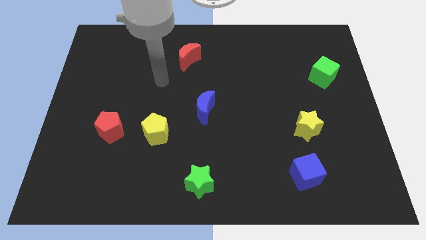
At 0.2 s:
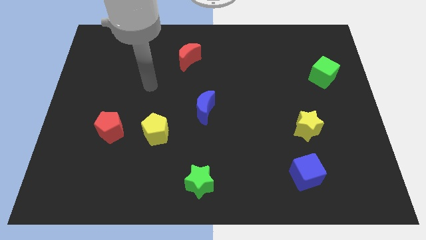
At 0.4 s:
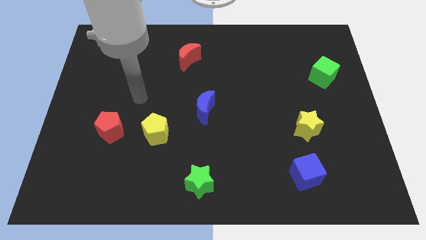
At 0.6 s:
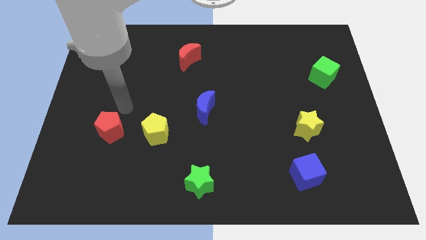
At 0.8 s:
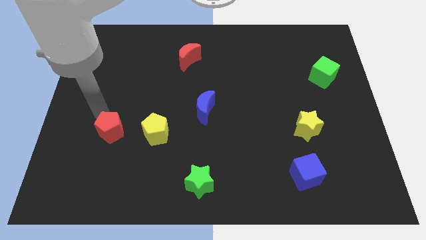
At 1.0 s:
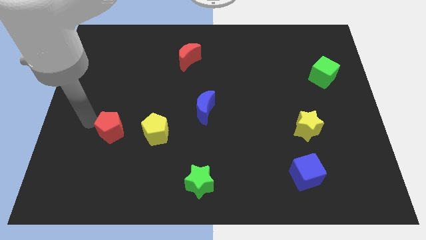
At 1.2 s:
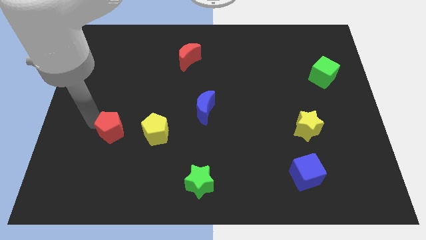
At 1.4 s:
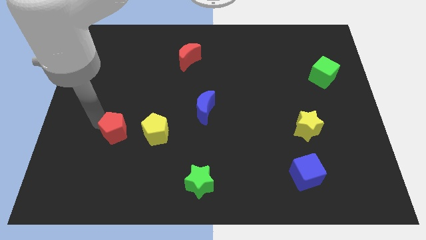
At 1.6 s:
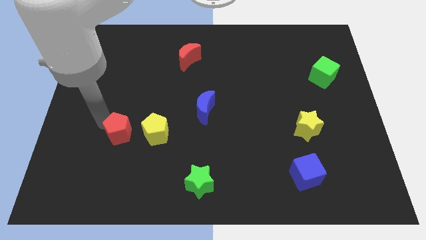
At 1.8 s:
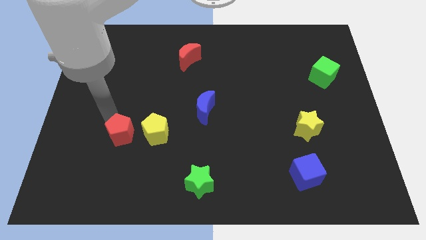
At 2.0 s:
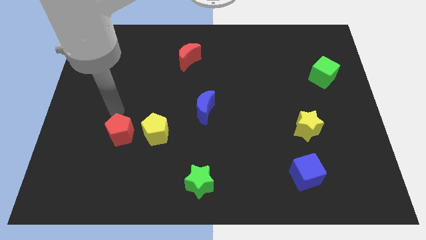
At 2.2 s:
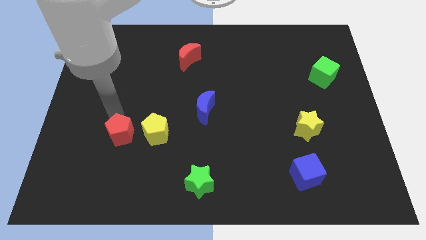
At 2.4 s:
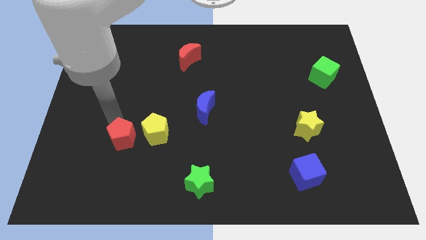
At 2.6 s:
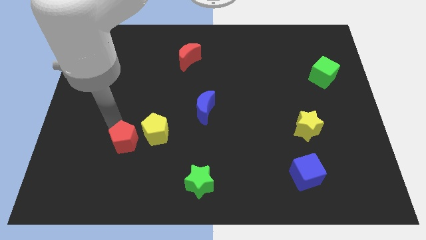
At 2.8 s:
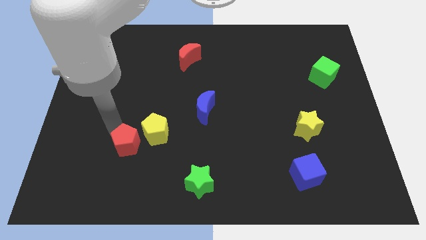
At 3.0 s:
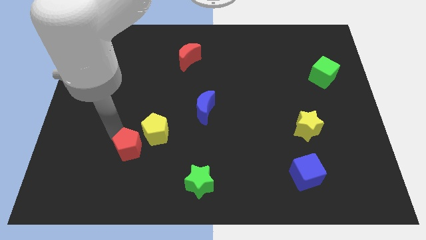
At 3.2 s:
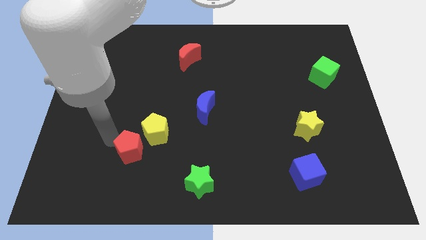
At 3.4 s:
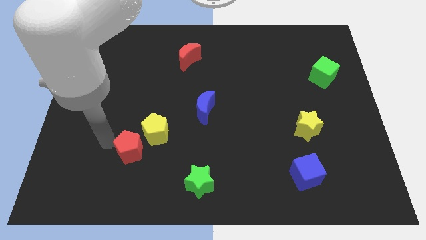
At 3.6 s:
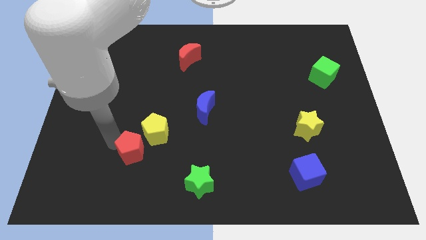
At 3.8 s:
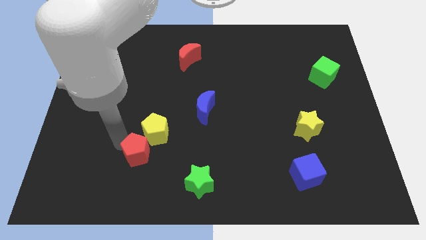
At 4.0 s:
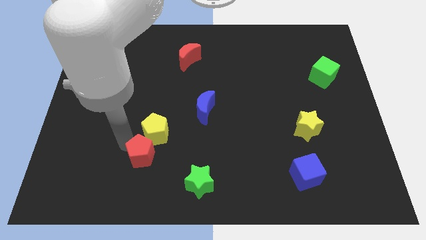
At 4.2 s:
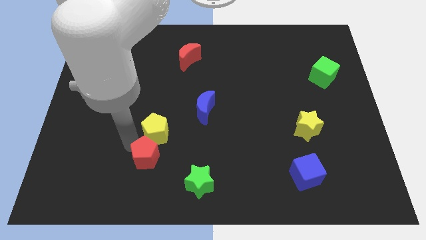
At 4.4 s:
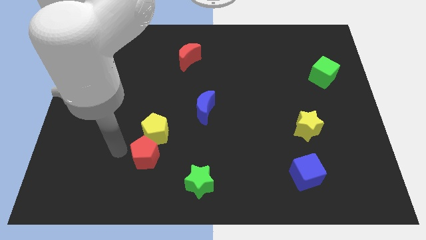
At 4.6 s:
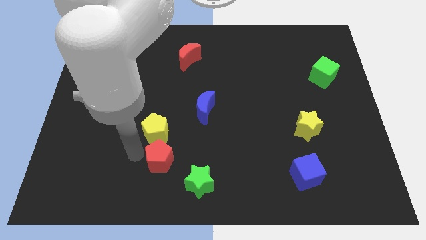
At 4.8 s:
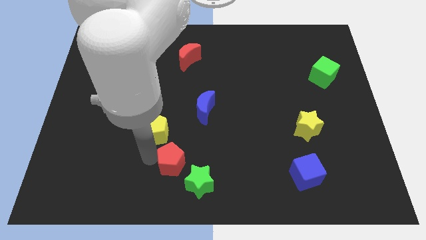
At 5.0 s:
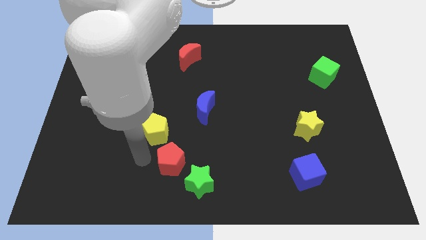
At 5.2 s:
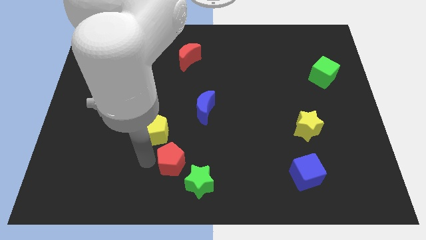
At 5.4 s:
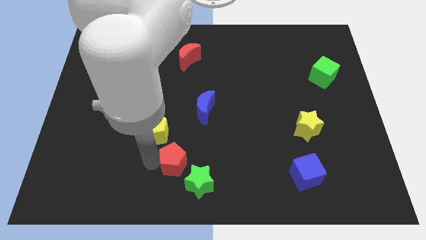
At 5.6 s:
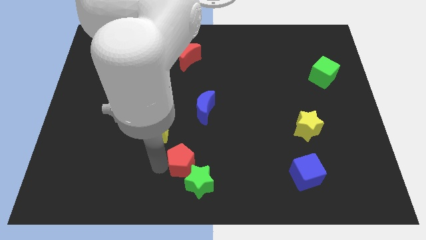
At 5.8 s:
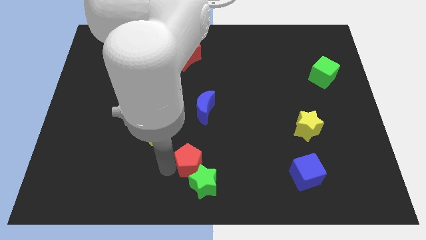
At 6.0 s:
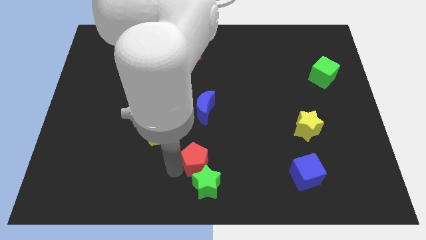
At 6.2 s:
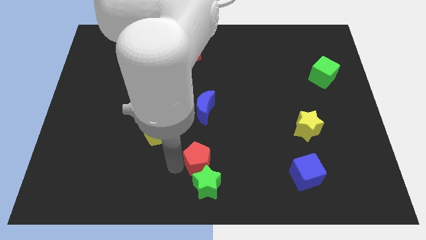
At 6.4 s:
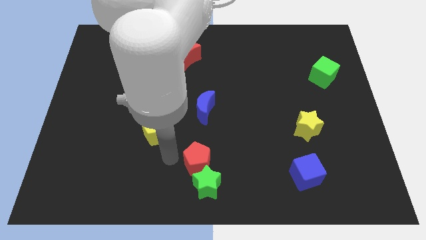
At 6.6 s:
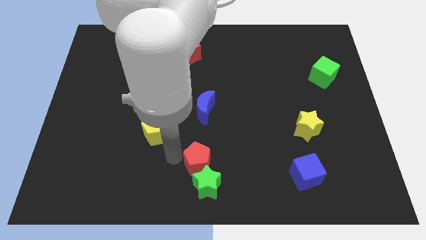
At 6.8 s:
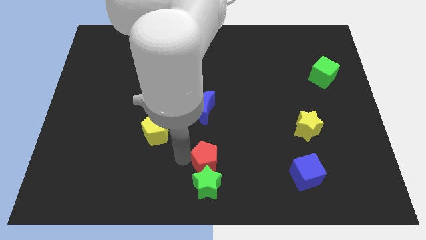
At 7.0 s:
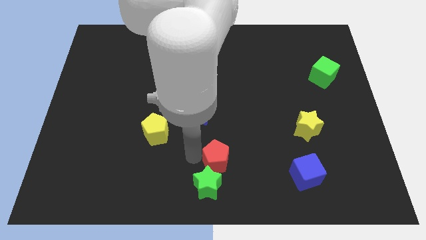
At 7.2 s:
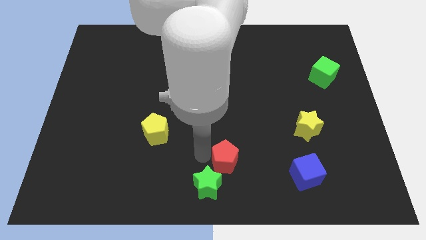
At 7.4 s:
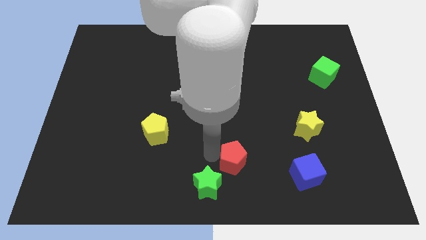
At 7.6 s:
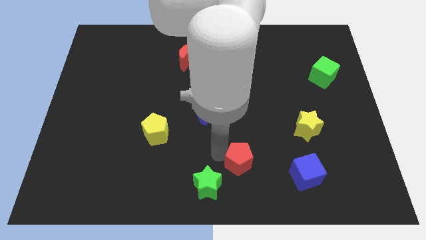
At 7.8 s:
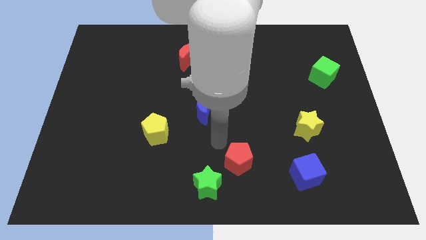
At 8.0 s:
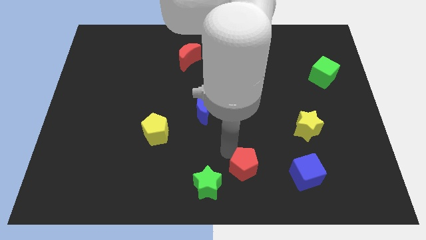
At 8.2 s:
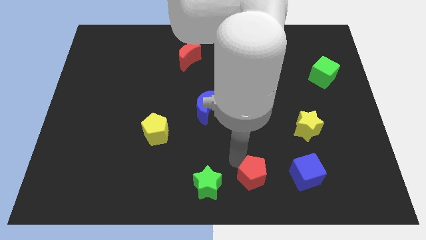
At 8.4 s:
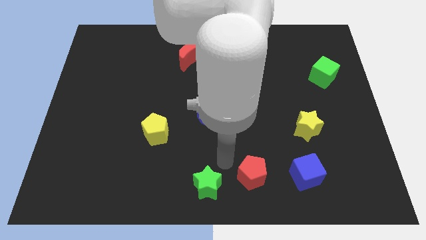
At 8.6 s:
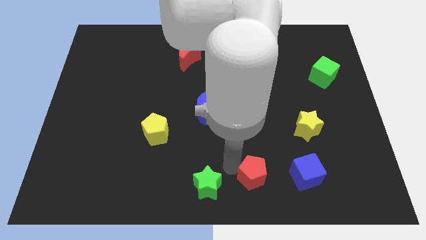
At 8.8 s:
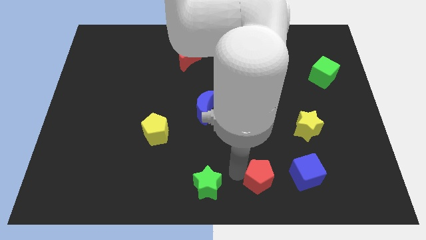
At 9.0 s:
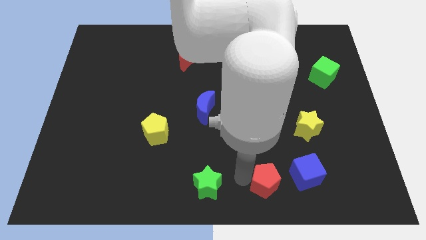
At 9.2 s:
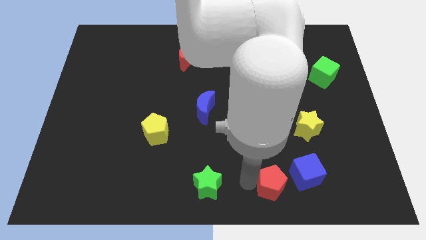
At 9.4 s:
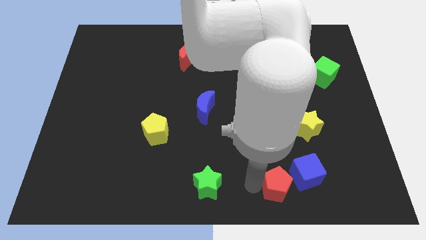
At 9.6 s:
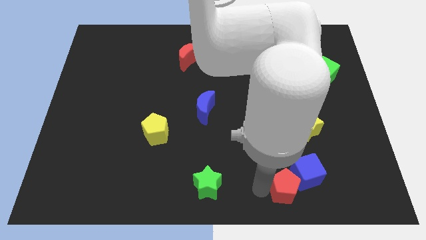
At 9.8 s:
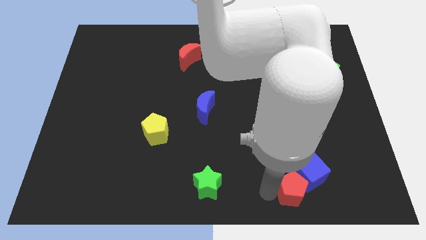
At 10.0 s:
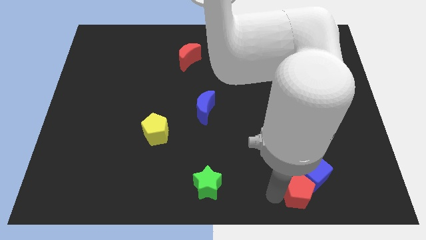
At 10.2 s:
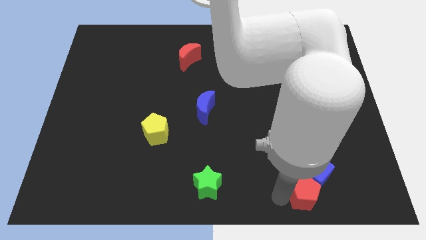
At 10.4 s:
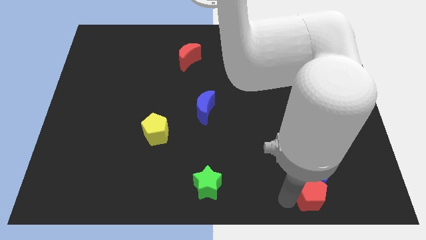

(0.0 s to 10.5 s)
slide the red pentagon to the bottom of the yellow star

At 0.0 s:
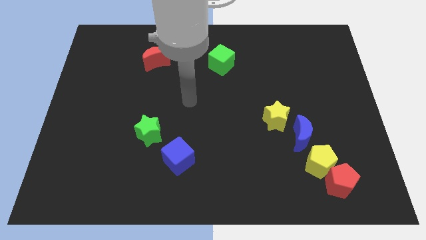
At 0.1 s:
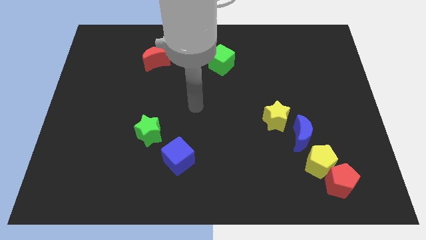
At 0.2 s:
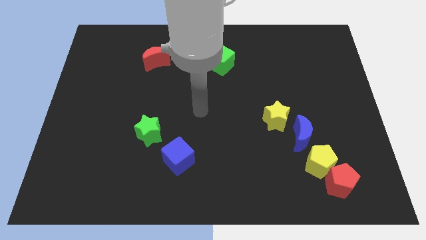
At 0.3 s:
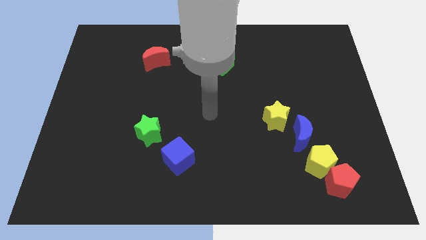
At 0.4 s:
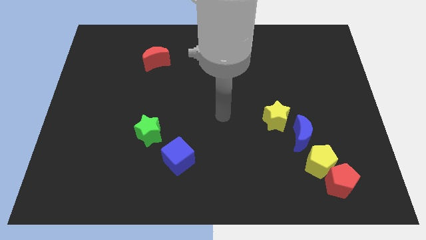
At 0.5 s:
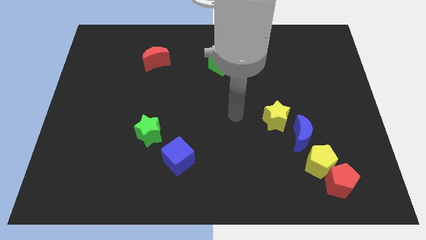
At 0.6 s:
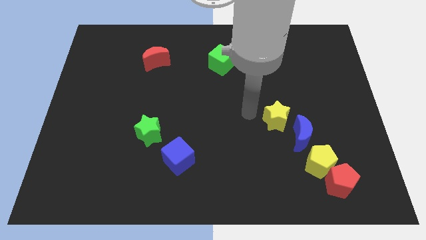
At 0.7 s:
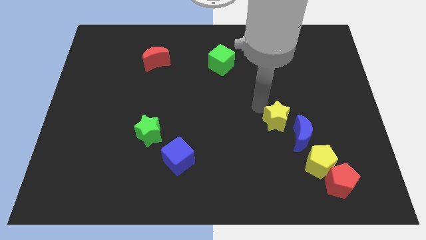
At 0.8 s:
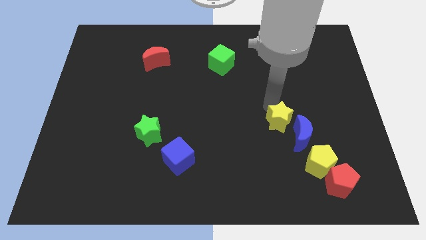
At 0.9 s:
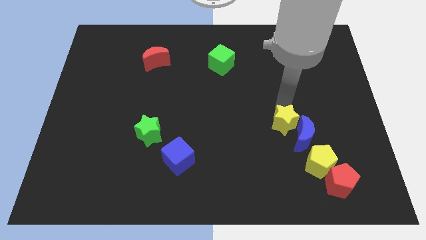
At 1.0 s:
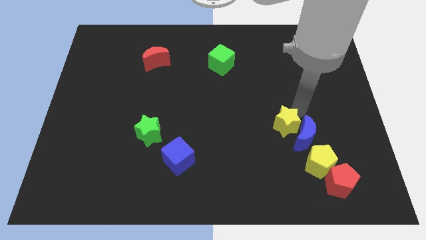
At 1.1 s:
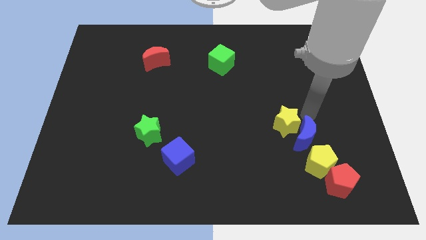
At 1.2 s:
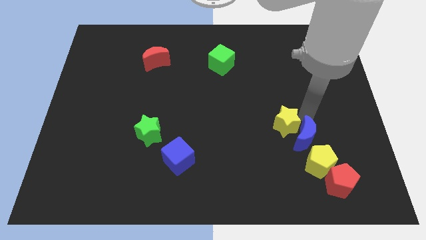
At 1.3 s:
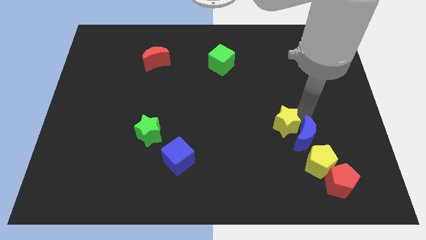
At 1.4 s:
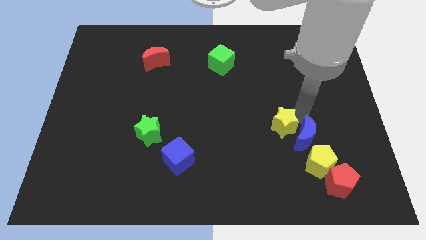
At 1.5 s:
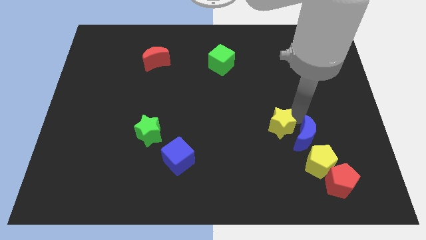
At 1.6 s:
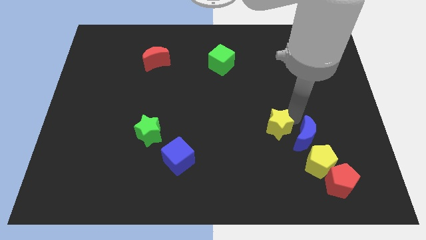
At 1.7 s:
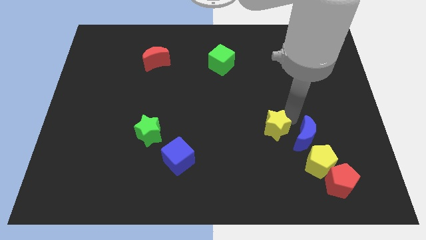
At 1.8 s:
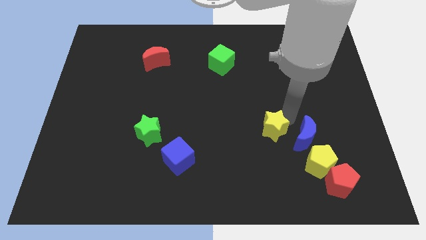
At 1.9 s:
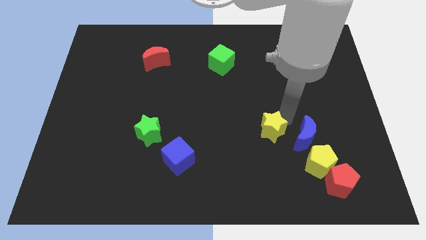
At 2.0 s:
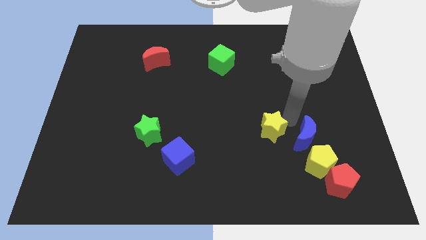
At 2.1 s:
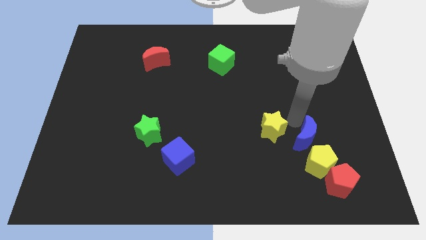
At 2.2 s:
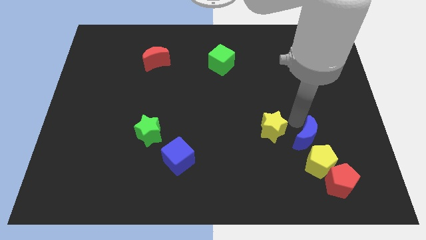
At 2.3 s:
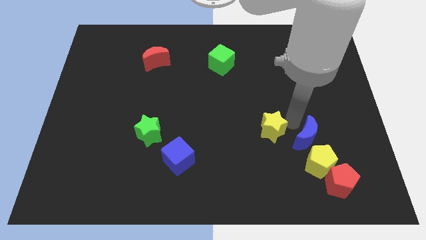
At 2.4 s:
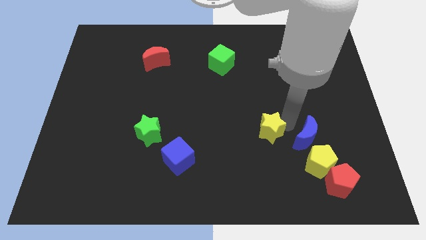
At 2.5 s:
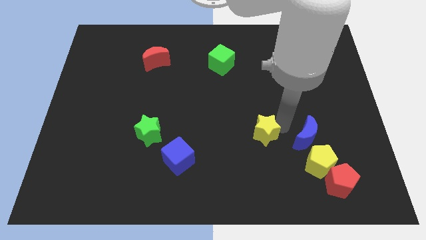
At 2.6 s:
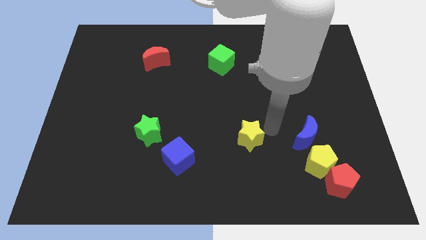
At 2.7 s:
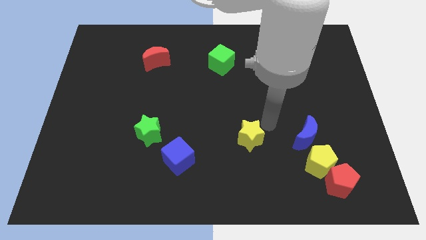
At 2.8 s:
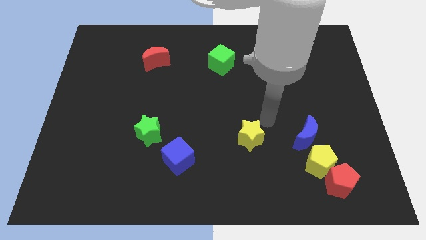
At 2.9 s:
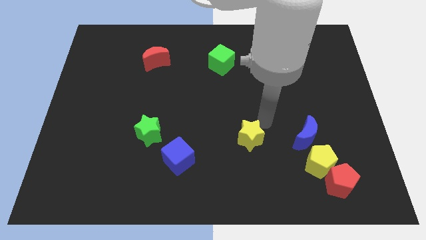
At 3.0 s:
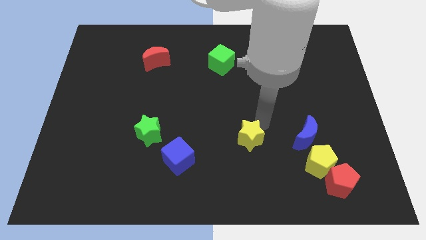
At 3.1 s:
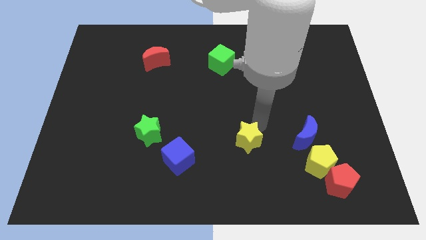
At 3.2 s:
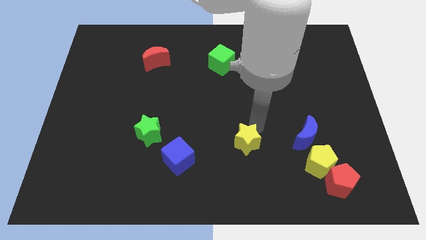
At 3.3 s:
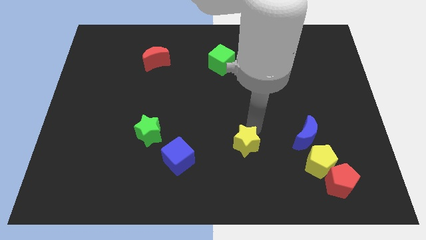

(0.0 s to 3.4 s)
push the yellow star to the right side of the blue cube
